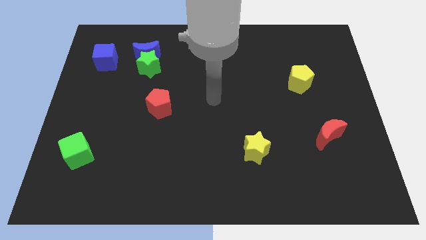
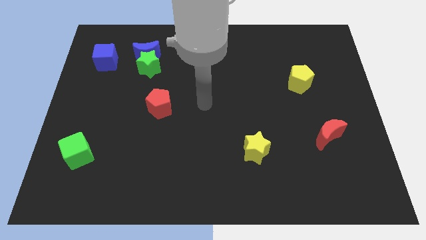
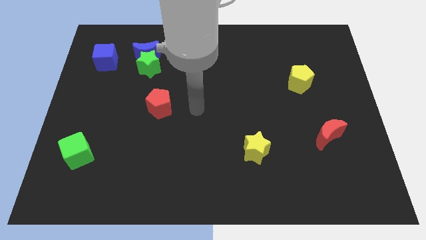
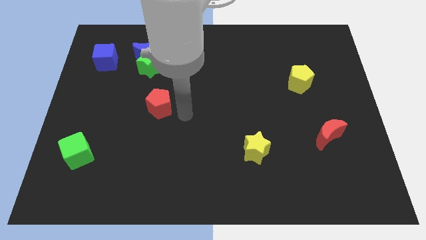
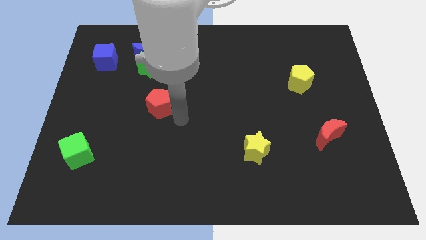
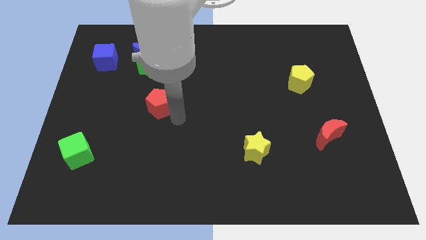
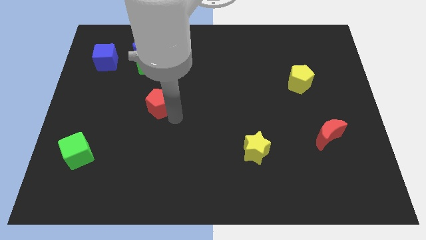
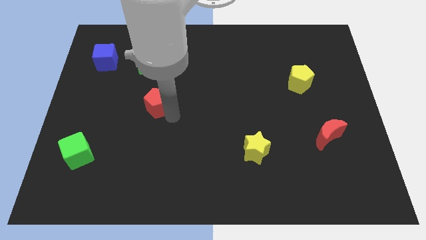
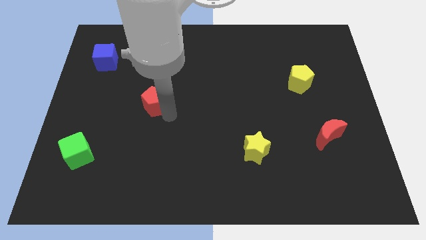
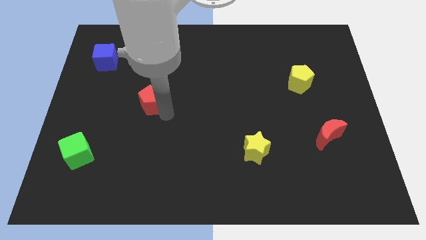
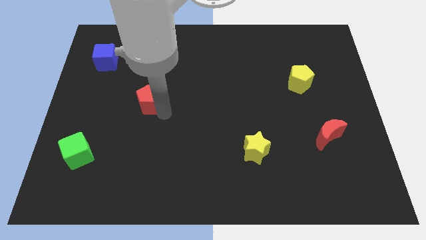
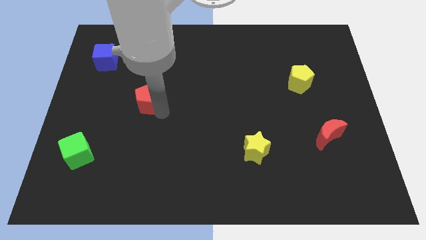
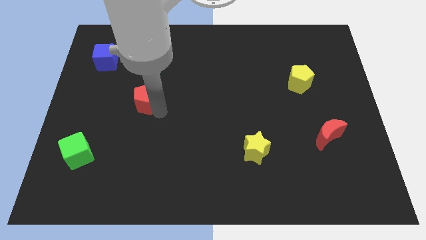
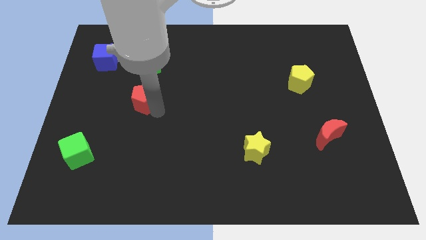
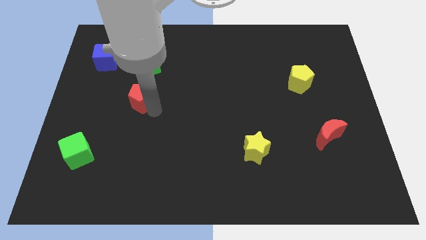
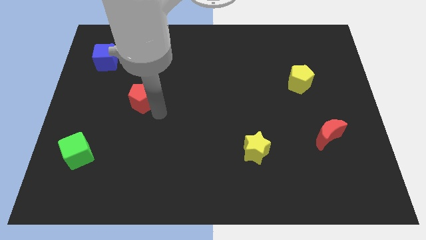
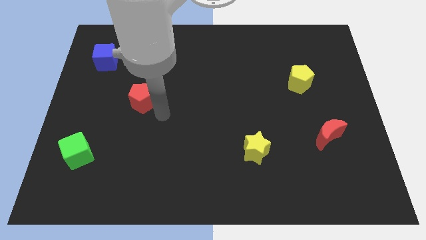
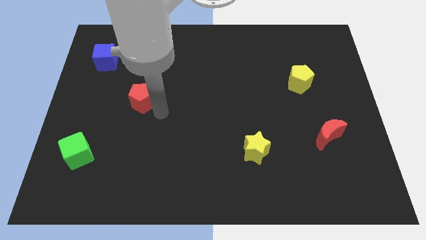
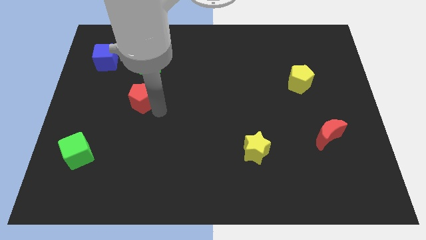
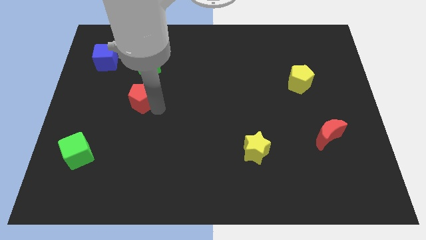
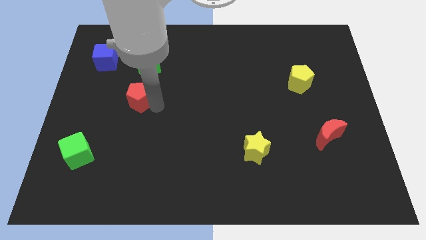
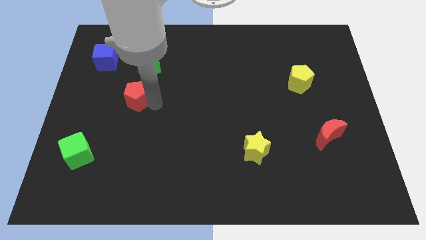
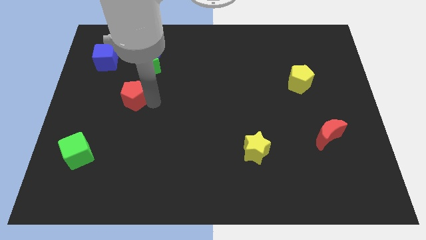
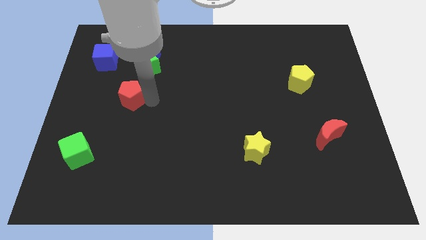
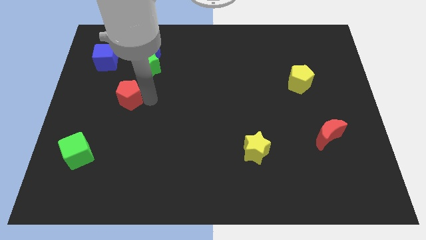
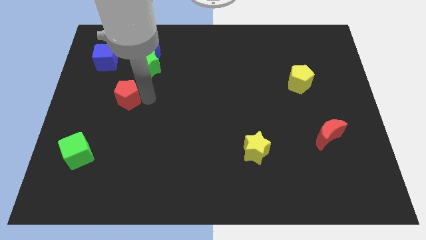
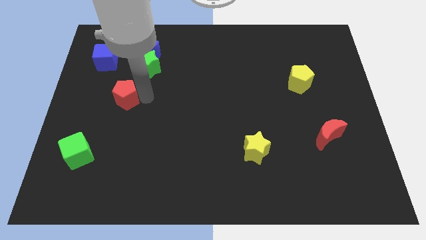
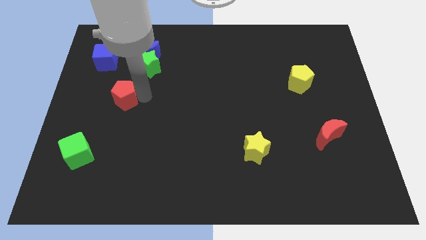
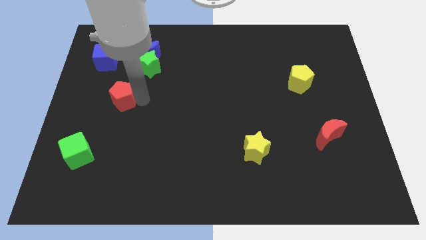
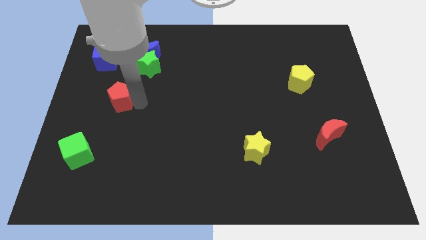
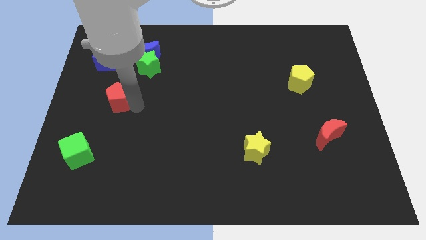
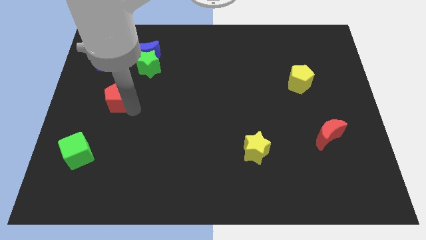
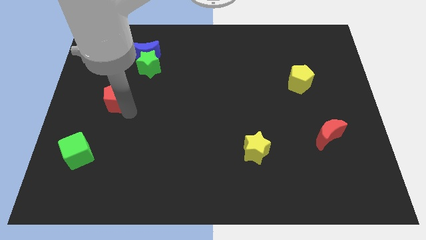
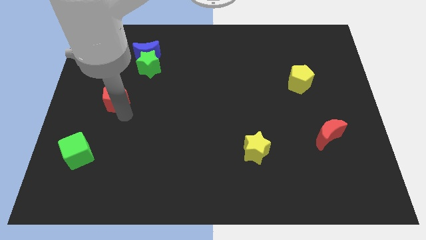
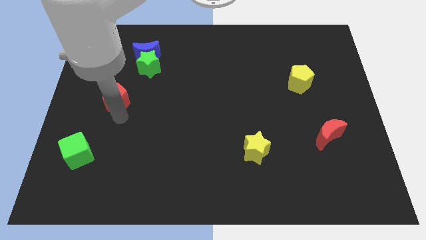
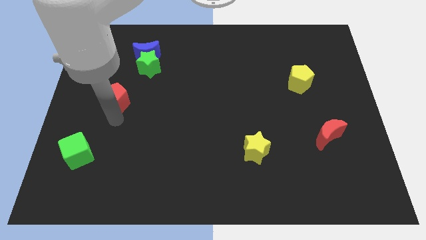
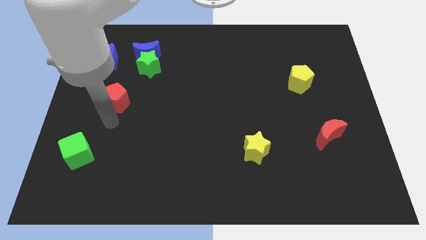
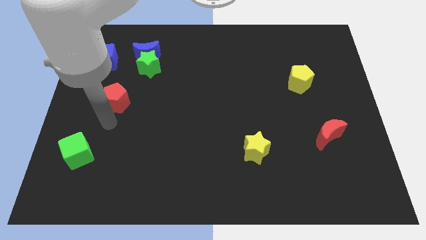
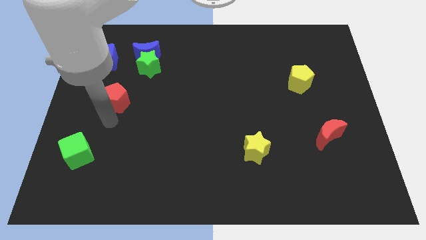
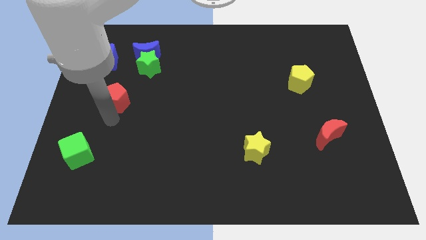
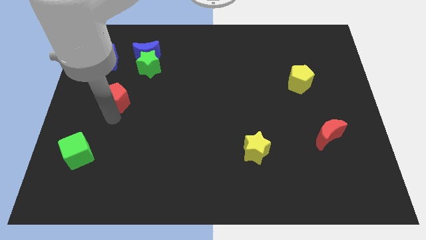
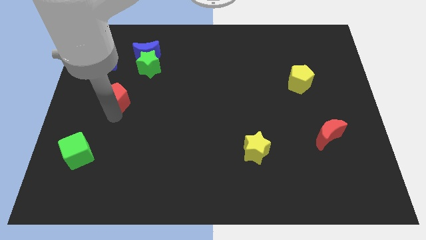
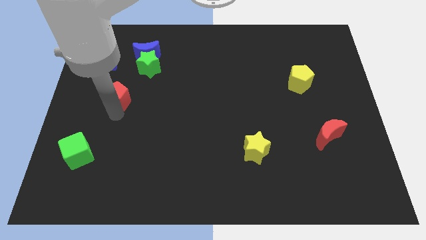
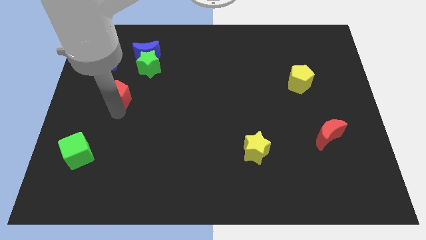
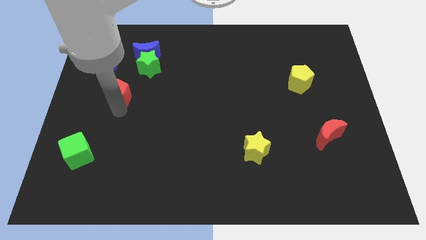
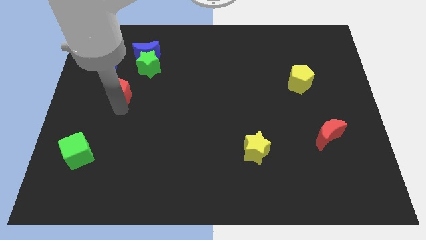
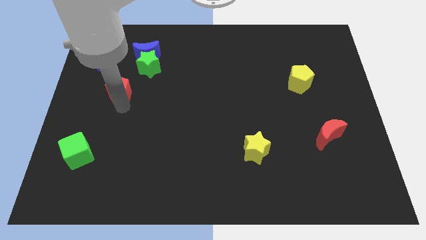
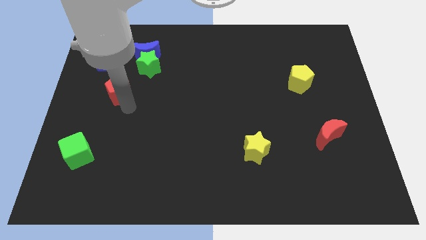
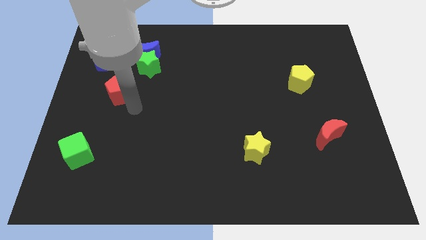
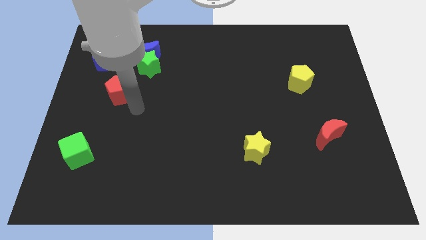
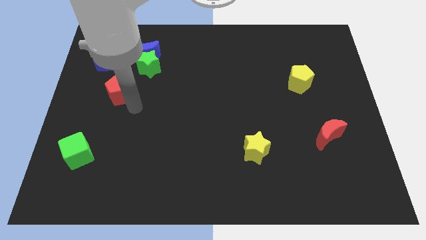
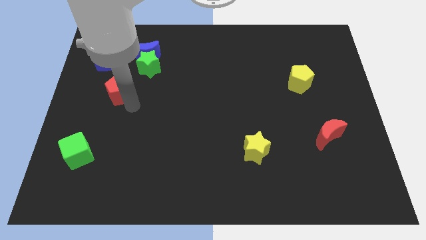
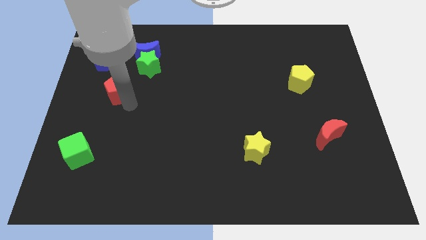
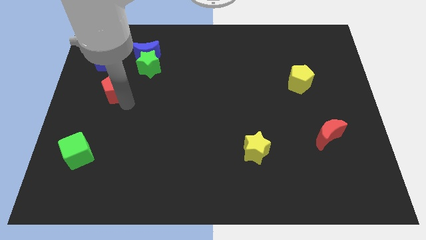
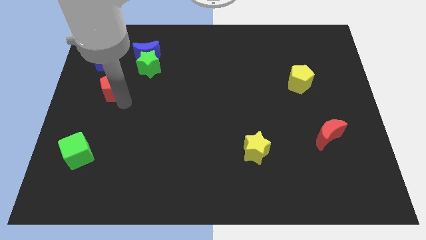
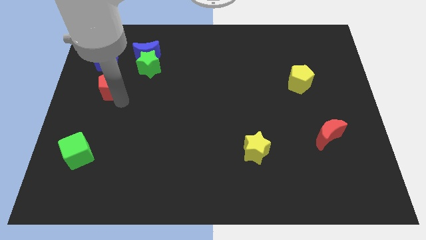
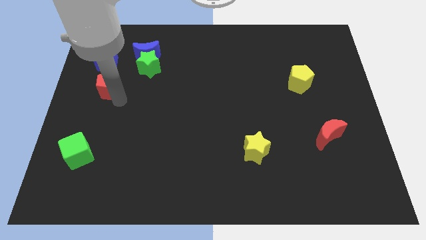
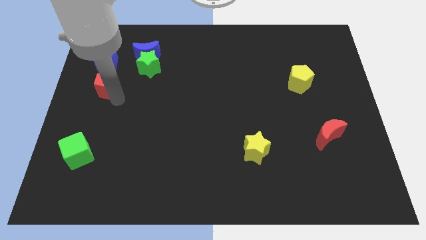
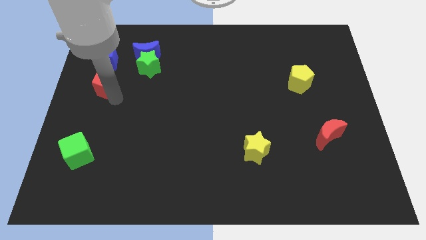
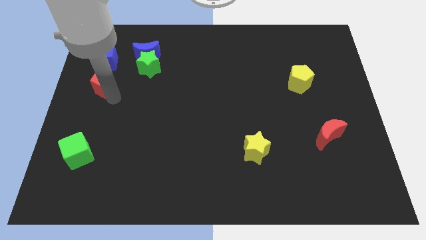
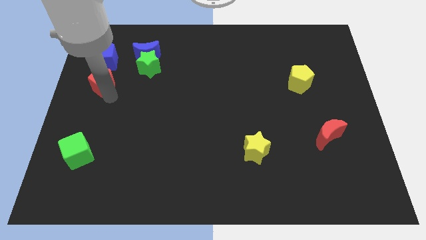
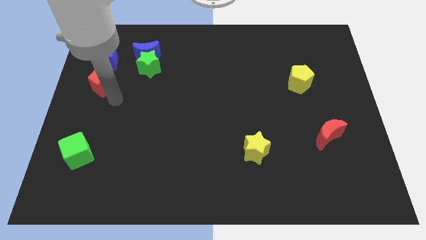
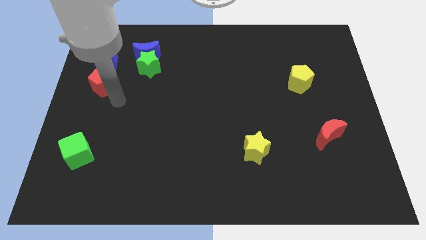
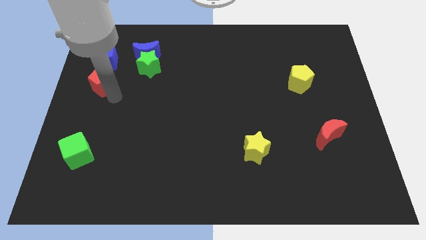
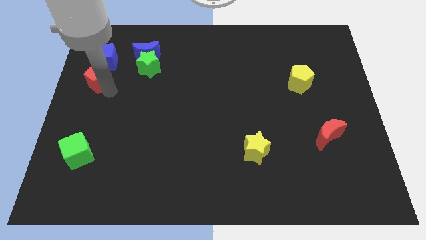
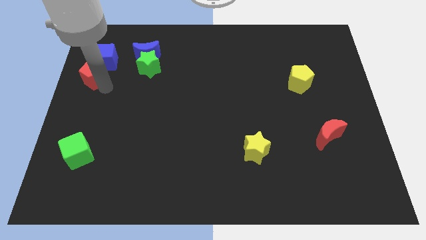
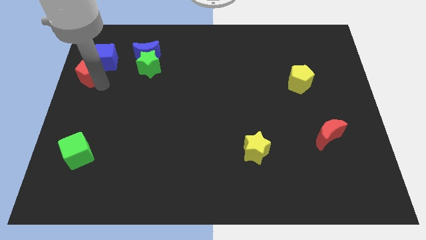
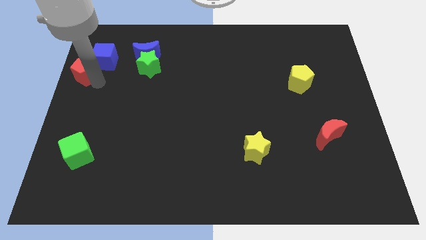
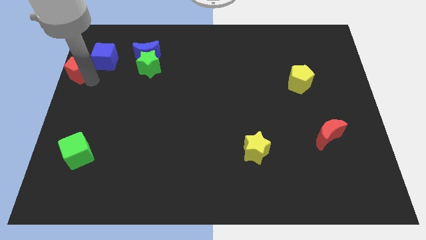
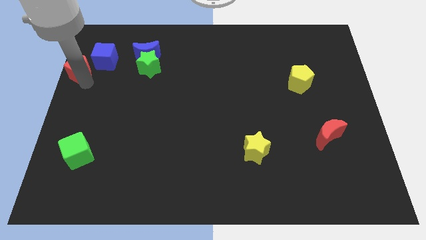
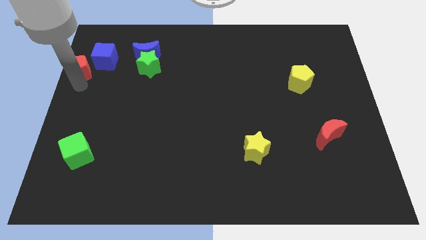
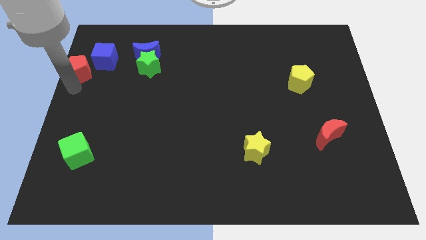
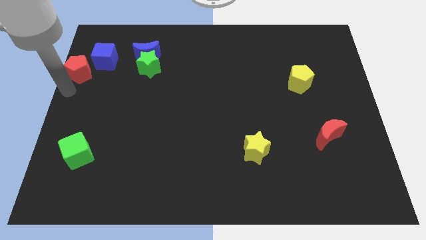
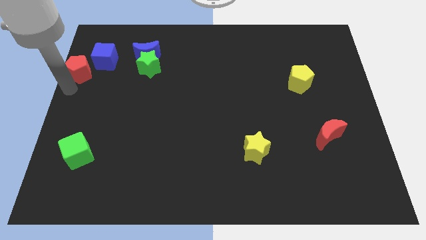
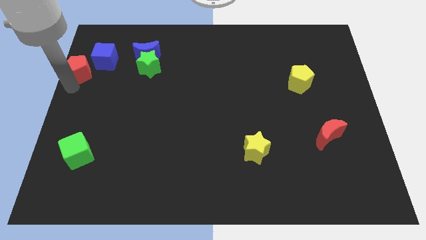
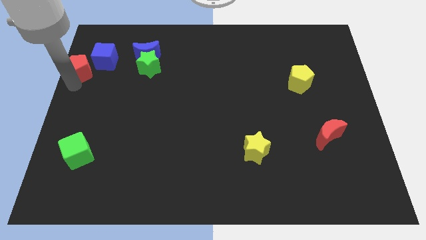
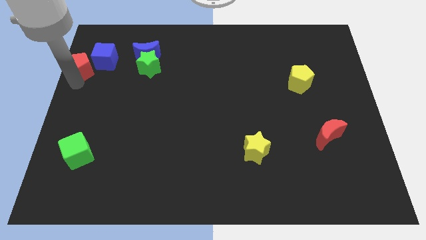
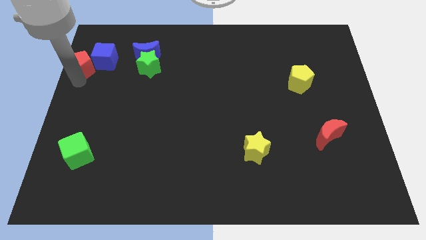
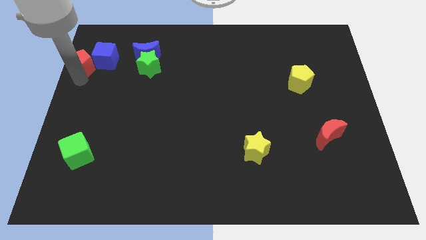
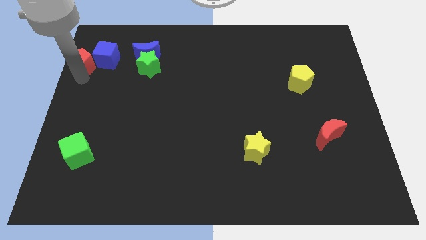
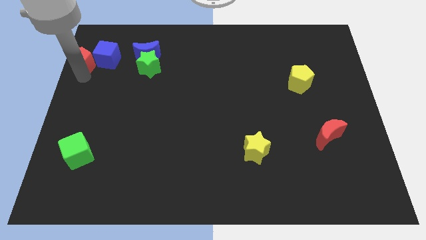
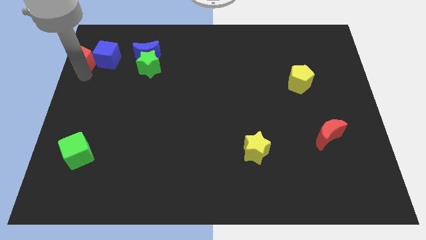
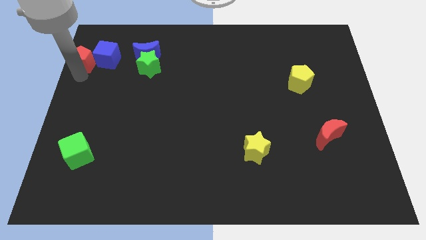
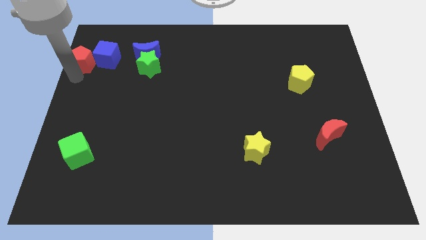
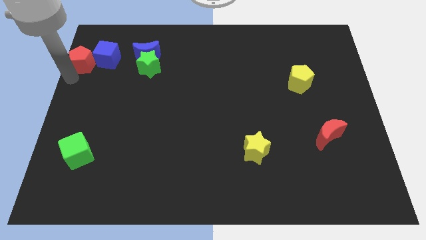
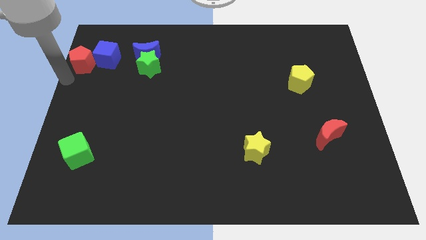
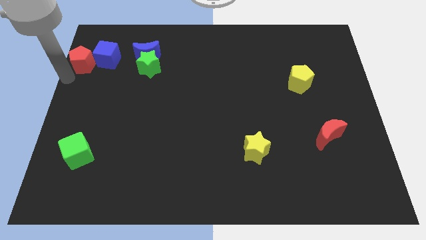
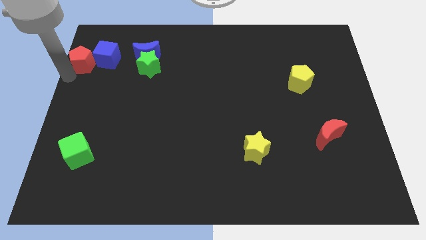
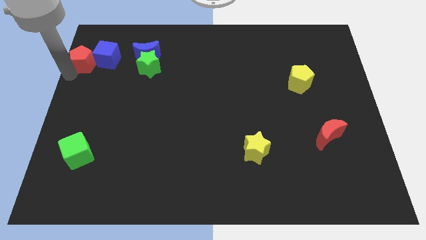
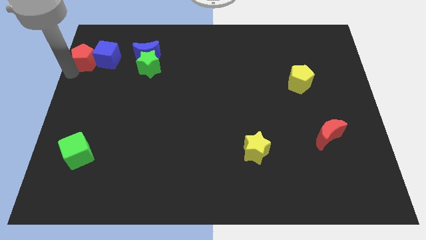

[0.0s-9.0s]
move the red pentagon to the left of the blue moon
